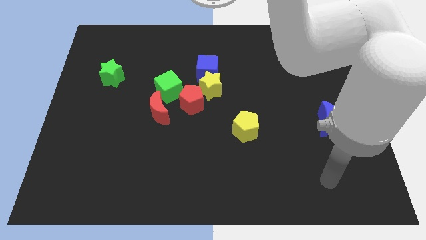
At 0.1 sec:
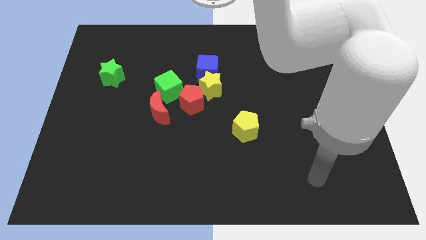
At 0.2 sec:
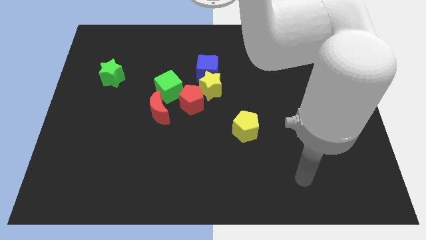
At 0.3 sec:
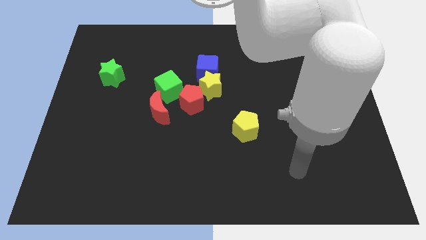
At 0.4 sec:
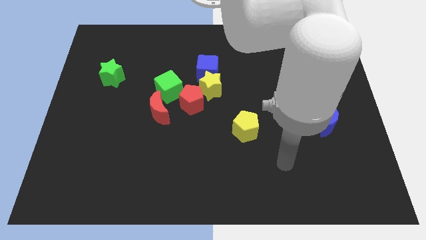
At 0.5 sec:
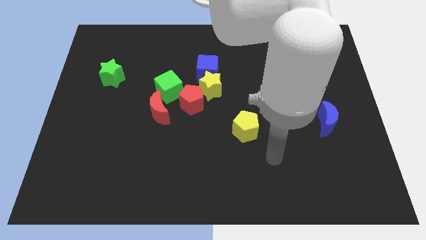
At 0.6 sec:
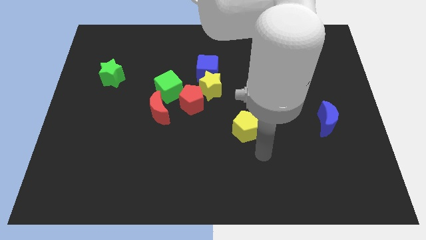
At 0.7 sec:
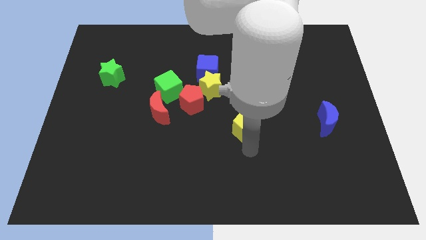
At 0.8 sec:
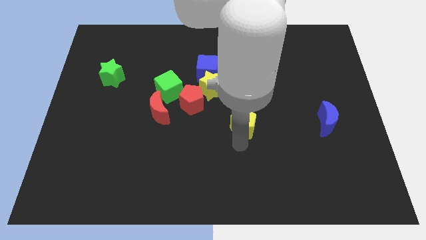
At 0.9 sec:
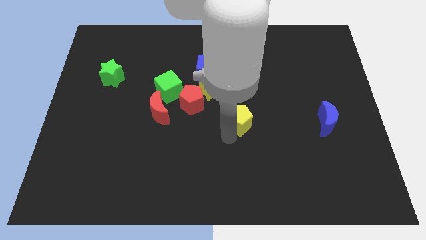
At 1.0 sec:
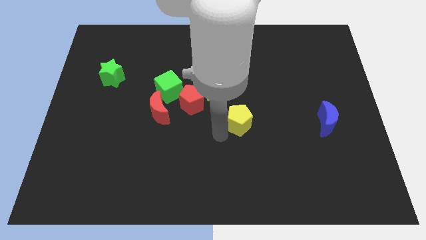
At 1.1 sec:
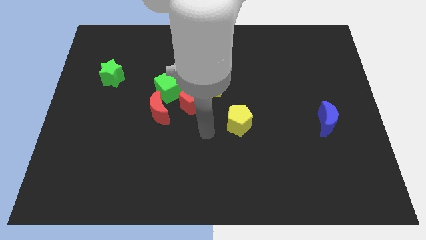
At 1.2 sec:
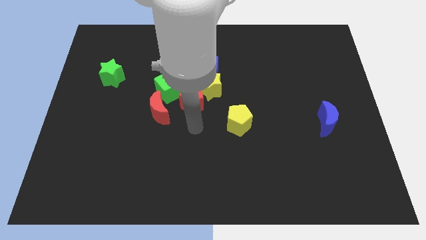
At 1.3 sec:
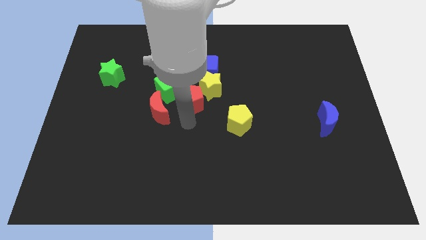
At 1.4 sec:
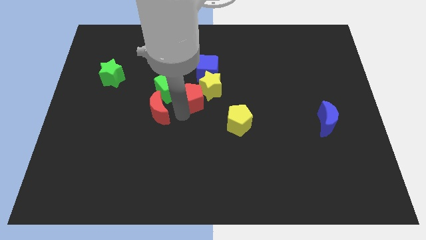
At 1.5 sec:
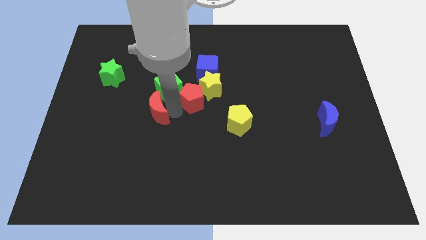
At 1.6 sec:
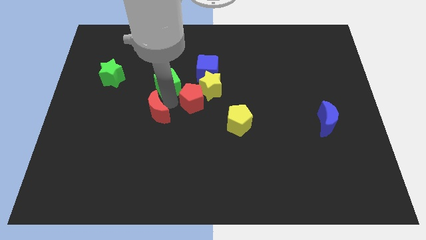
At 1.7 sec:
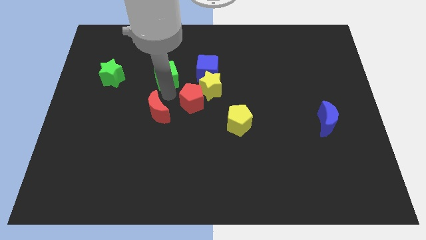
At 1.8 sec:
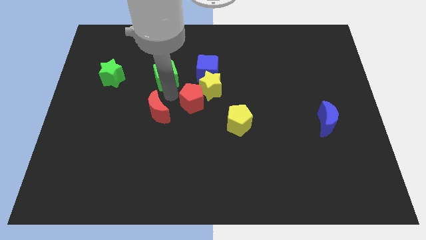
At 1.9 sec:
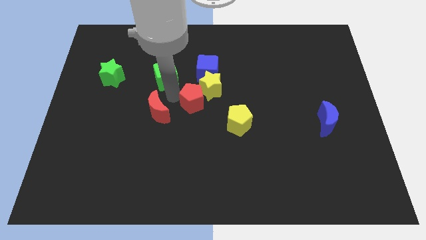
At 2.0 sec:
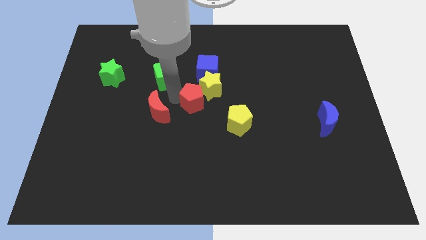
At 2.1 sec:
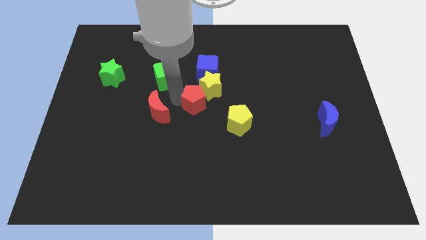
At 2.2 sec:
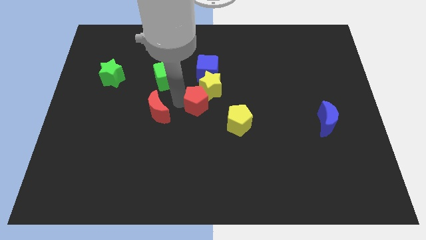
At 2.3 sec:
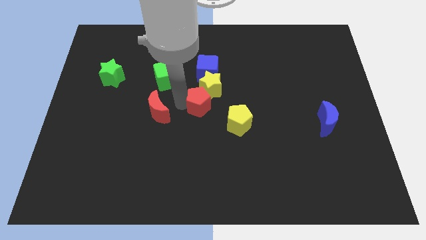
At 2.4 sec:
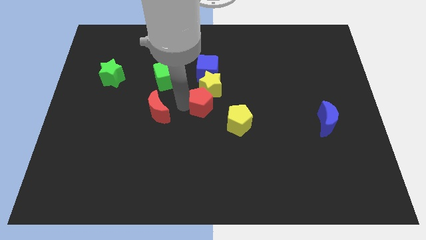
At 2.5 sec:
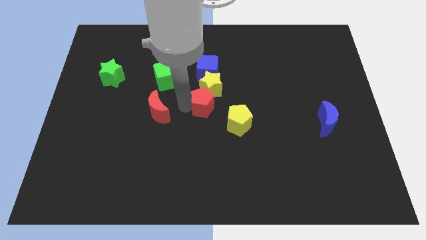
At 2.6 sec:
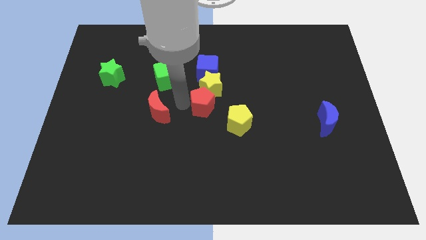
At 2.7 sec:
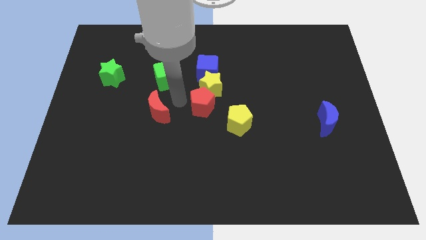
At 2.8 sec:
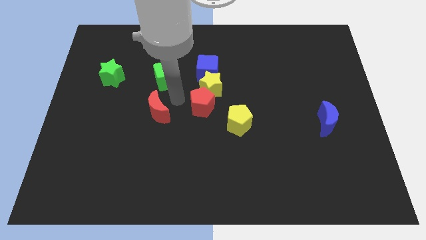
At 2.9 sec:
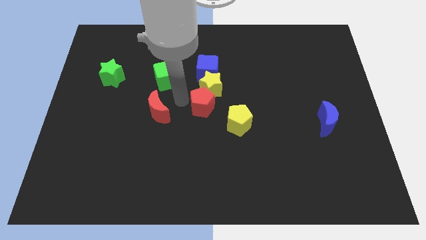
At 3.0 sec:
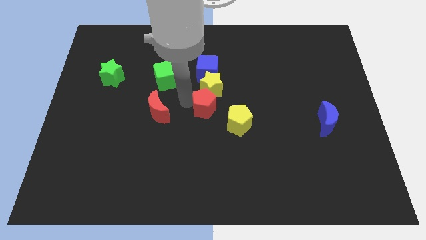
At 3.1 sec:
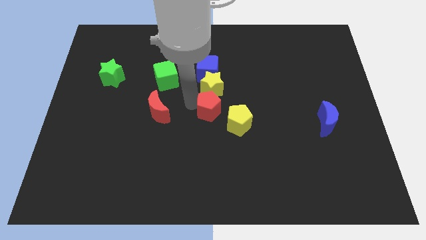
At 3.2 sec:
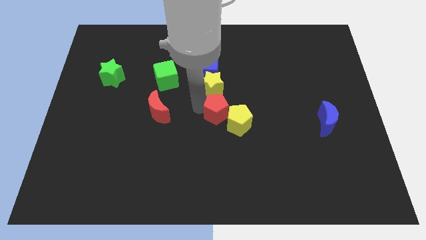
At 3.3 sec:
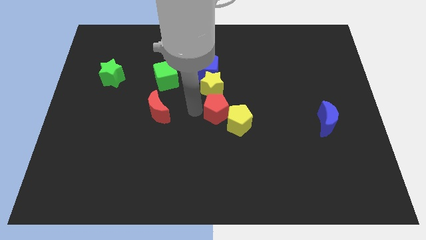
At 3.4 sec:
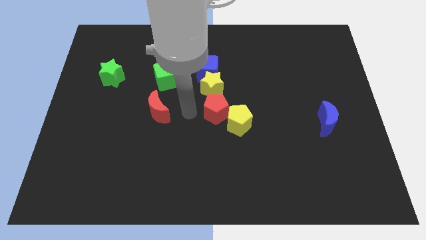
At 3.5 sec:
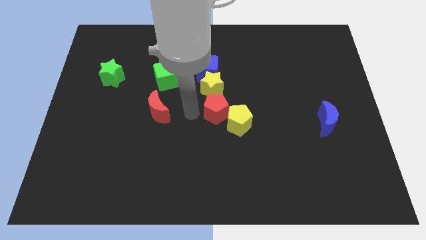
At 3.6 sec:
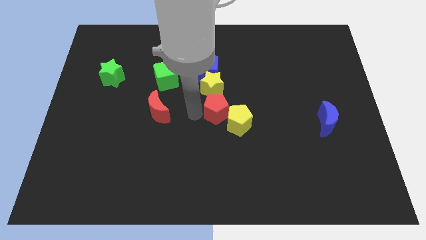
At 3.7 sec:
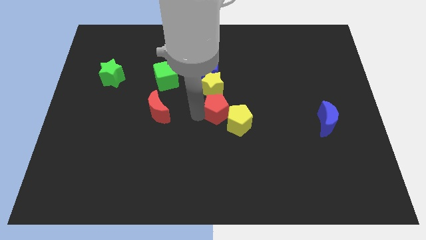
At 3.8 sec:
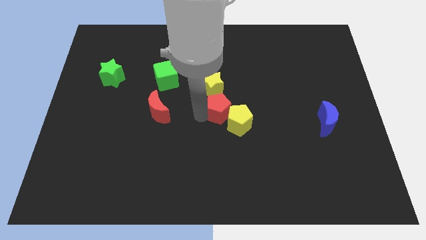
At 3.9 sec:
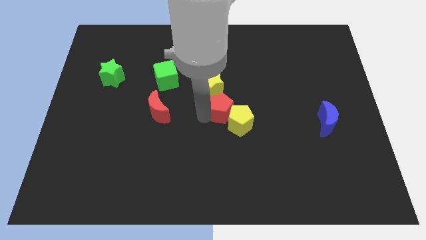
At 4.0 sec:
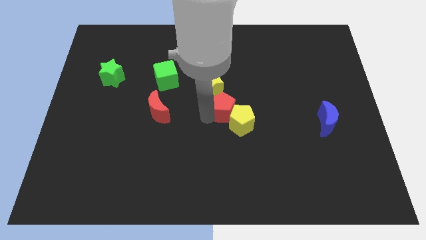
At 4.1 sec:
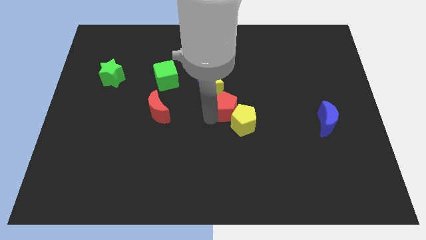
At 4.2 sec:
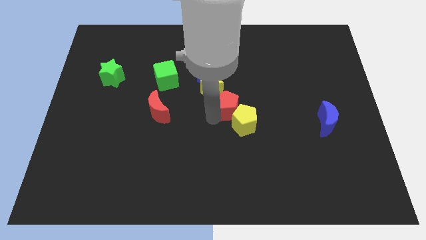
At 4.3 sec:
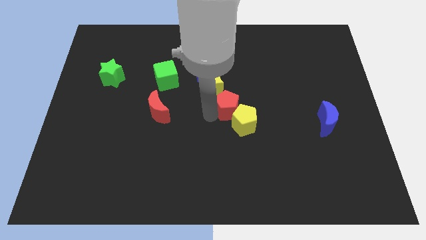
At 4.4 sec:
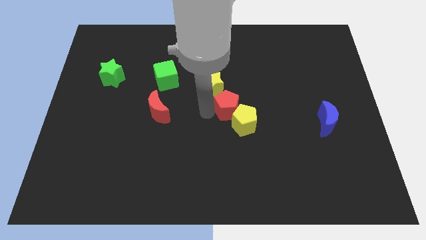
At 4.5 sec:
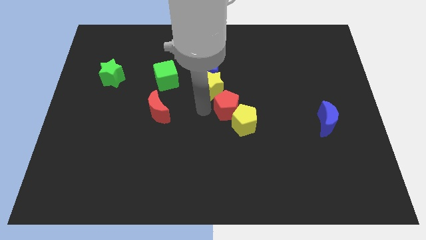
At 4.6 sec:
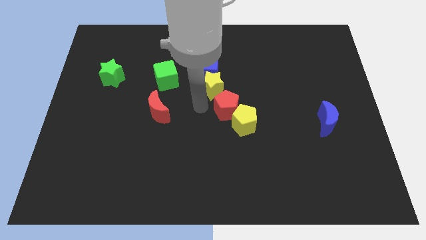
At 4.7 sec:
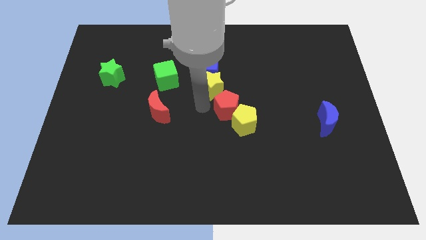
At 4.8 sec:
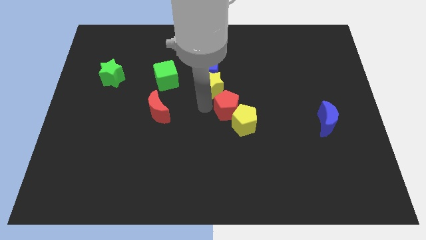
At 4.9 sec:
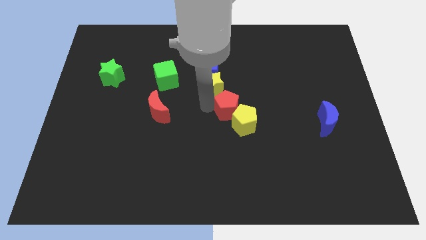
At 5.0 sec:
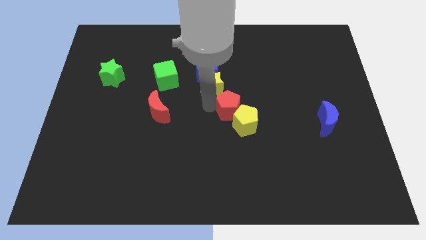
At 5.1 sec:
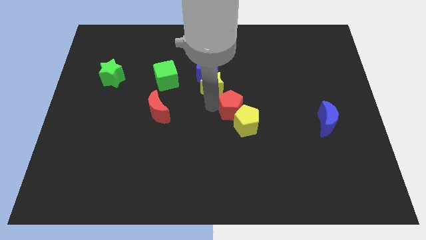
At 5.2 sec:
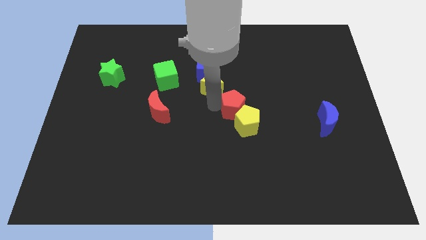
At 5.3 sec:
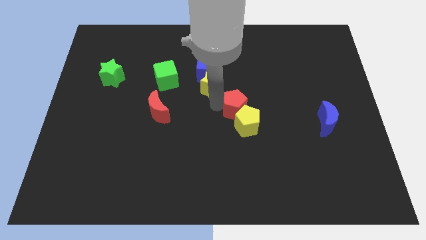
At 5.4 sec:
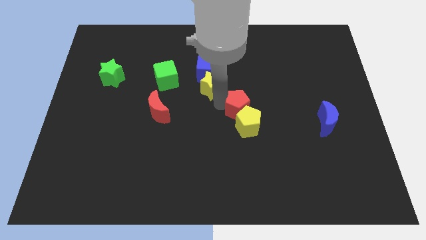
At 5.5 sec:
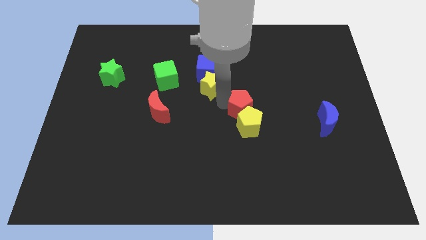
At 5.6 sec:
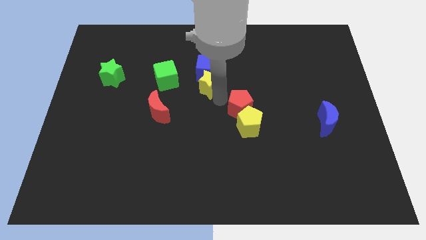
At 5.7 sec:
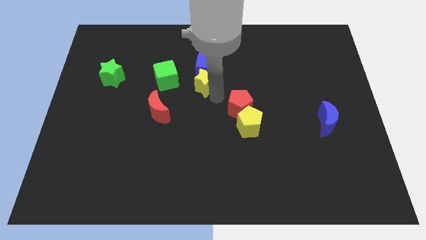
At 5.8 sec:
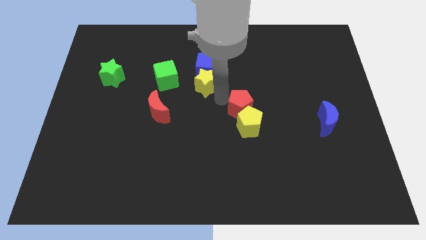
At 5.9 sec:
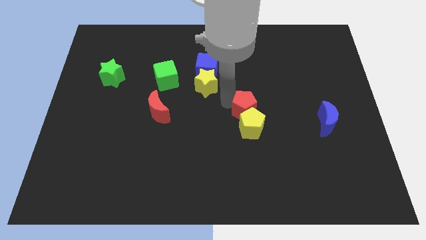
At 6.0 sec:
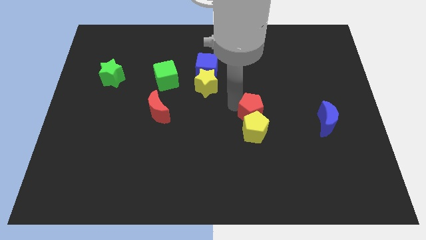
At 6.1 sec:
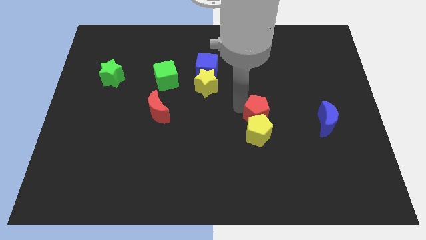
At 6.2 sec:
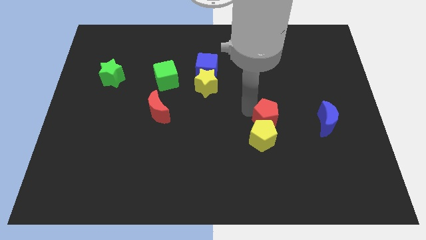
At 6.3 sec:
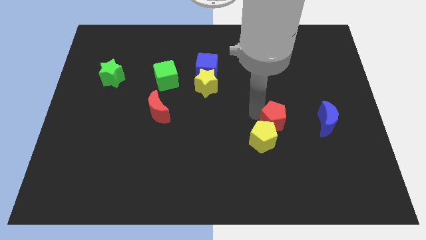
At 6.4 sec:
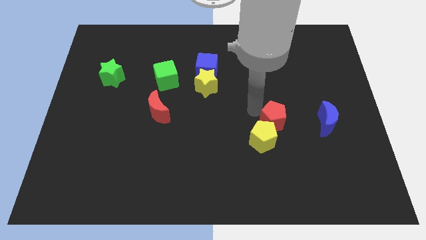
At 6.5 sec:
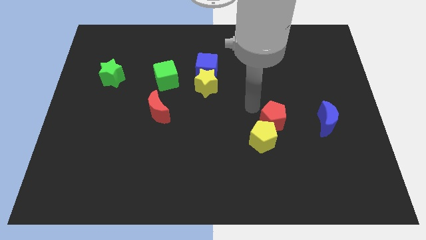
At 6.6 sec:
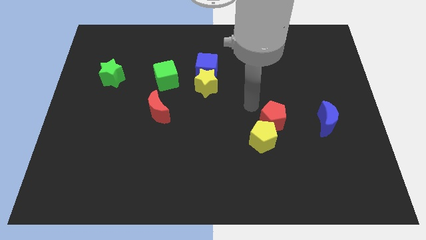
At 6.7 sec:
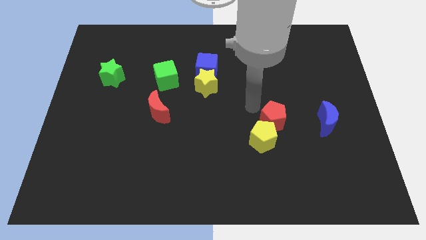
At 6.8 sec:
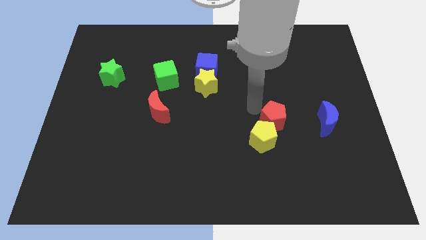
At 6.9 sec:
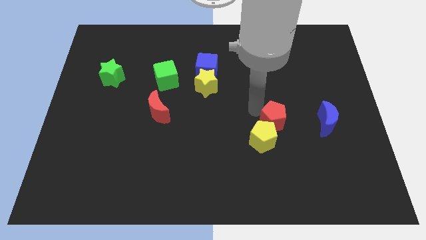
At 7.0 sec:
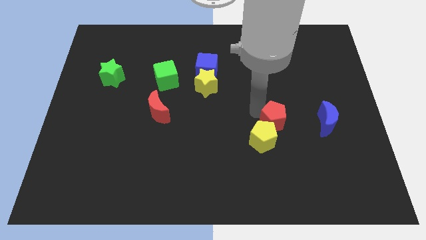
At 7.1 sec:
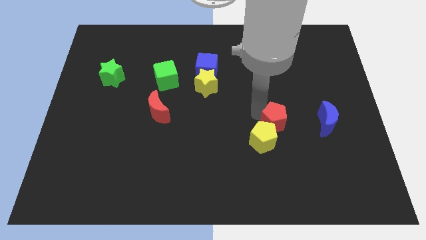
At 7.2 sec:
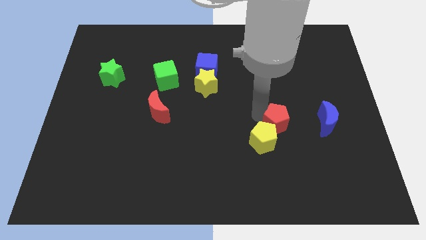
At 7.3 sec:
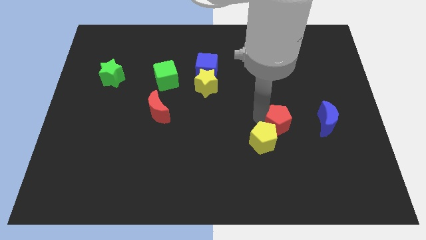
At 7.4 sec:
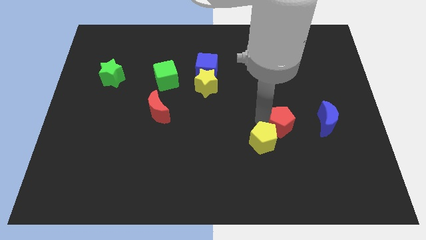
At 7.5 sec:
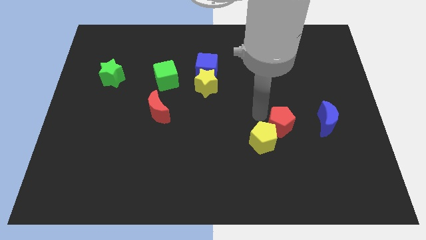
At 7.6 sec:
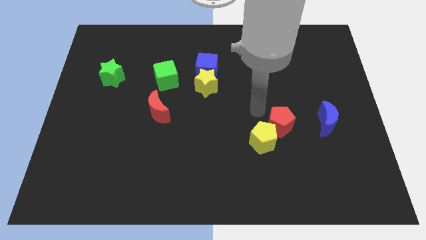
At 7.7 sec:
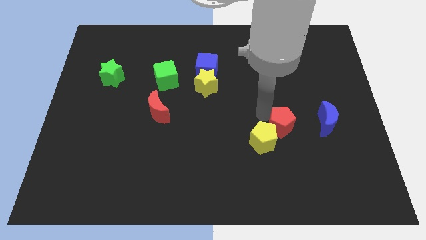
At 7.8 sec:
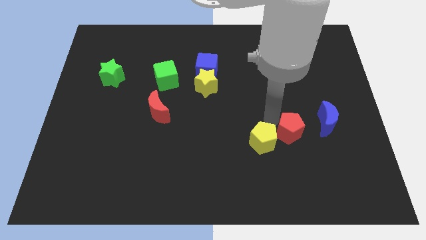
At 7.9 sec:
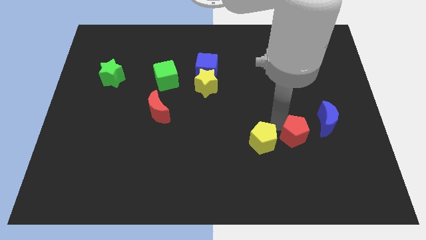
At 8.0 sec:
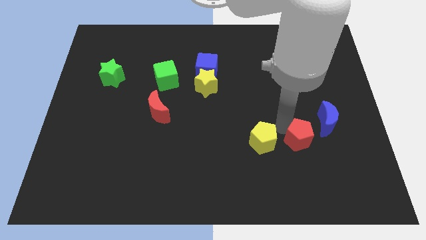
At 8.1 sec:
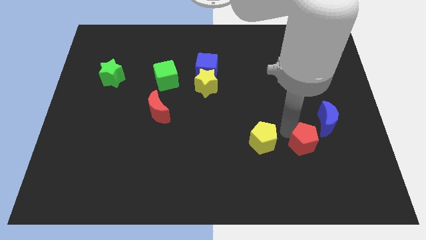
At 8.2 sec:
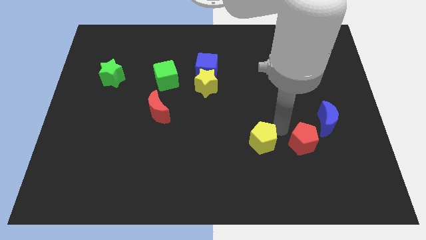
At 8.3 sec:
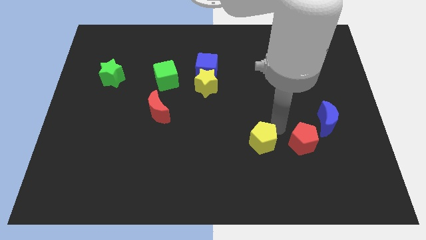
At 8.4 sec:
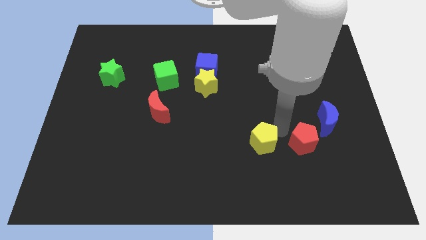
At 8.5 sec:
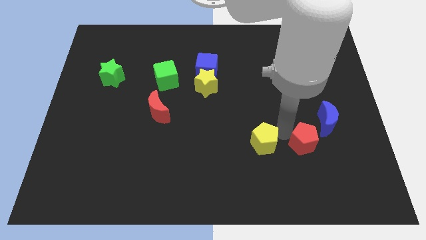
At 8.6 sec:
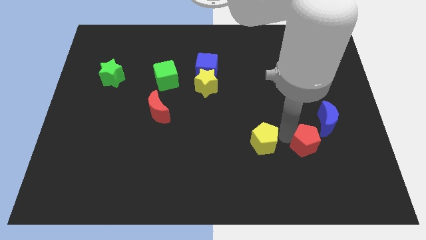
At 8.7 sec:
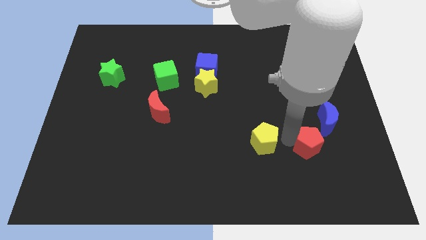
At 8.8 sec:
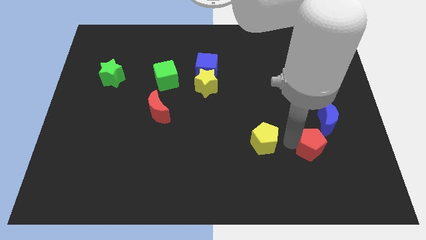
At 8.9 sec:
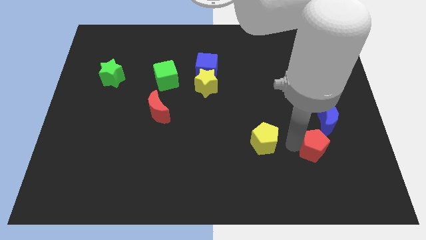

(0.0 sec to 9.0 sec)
move the red pentagon to the bottom side of the blue moon
